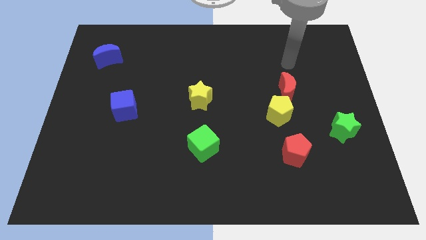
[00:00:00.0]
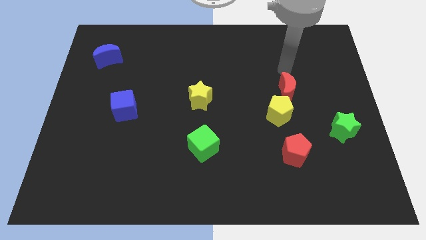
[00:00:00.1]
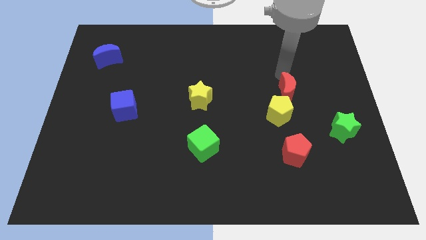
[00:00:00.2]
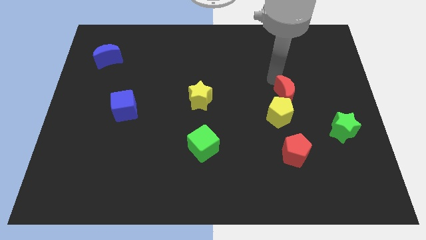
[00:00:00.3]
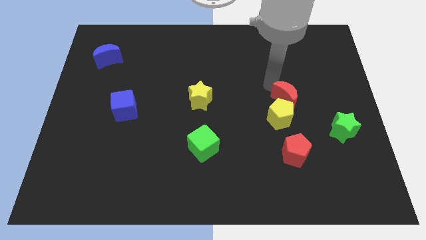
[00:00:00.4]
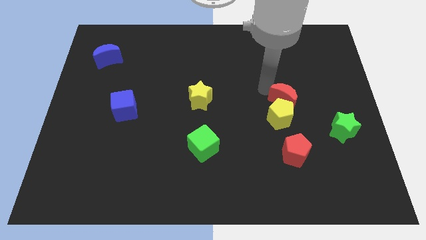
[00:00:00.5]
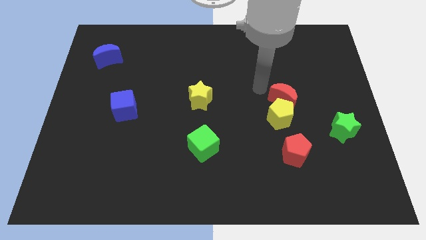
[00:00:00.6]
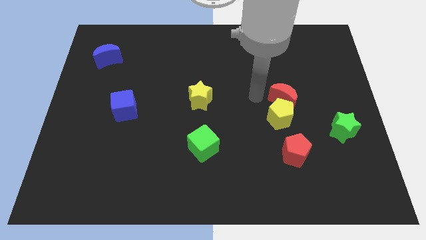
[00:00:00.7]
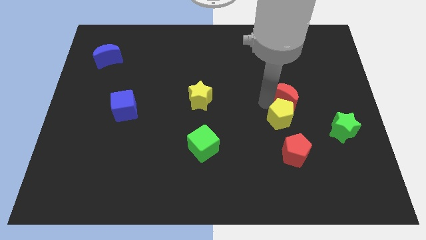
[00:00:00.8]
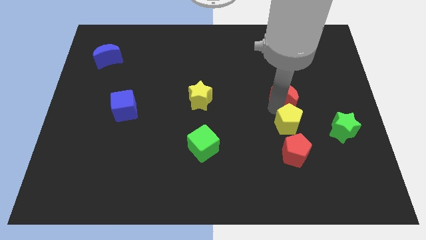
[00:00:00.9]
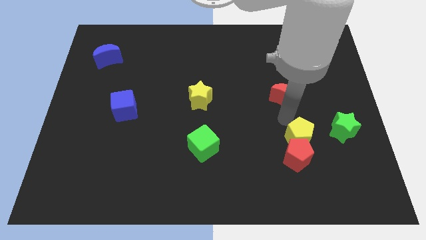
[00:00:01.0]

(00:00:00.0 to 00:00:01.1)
pull the red moon apart from the yellow pentagon

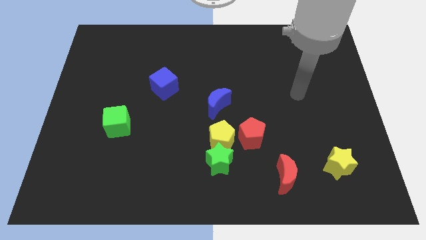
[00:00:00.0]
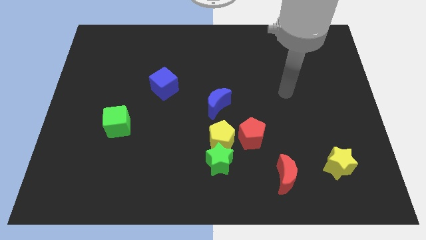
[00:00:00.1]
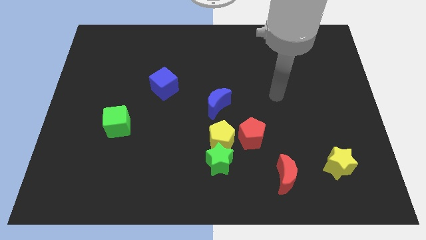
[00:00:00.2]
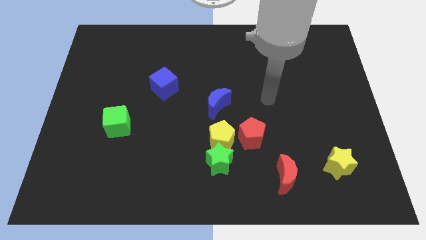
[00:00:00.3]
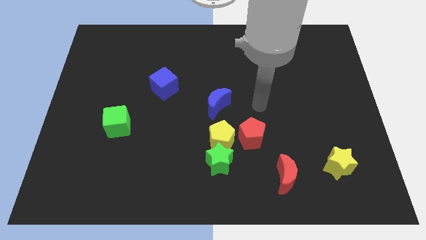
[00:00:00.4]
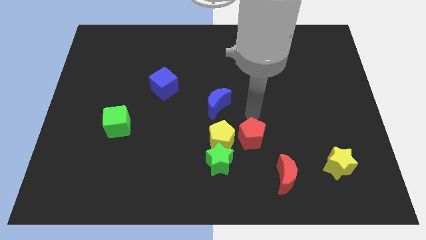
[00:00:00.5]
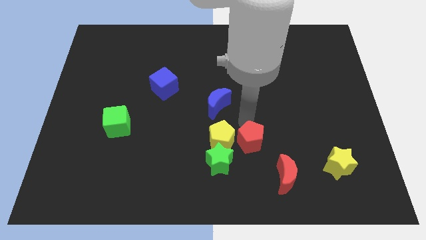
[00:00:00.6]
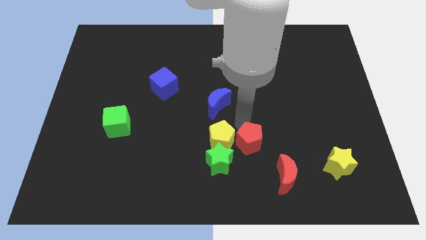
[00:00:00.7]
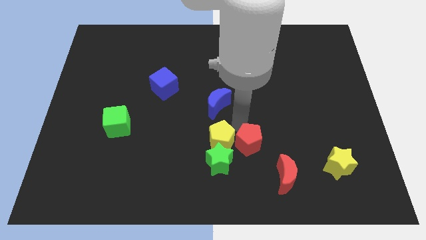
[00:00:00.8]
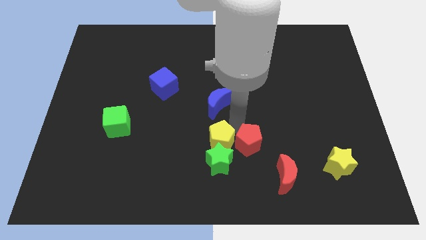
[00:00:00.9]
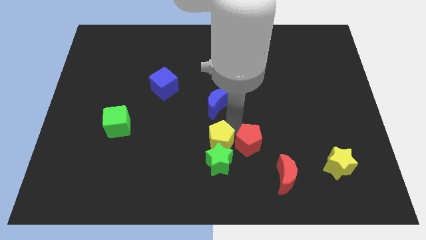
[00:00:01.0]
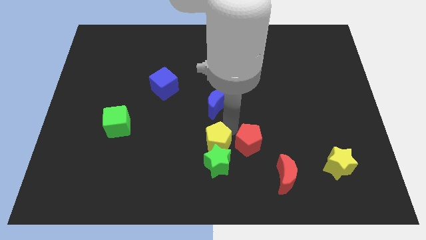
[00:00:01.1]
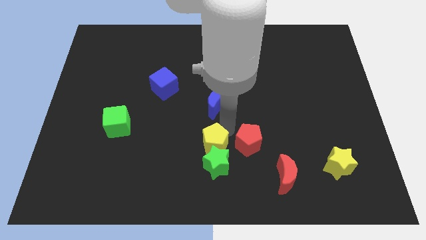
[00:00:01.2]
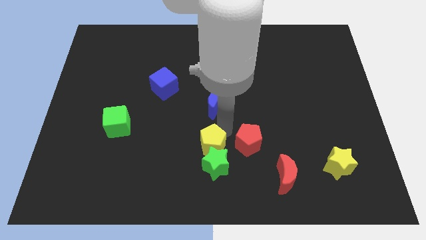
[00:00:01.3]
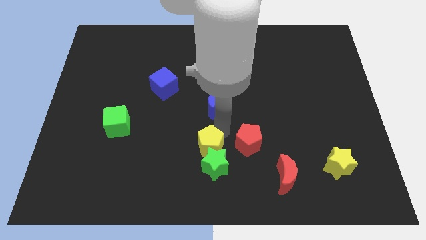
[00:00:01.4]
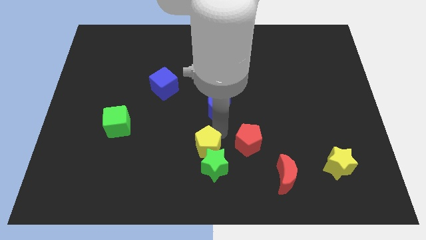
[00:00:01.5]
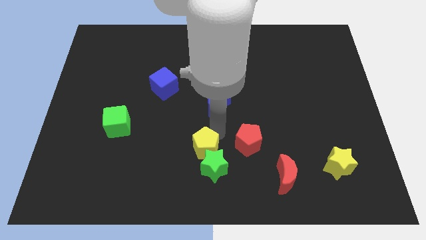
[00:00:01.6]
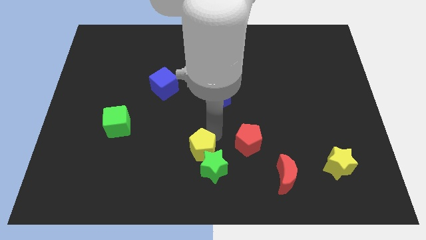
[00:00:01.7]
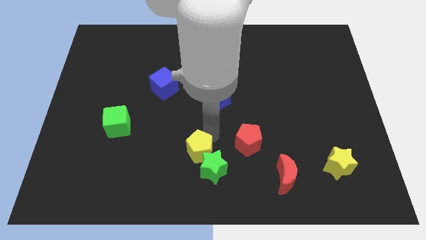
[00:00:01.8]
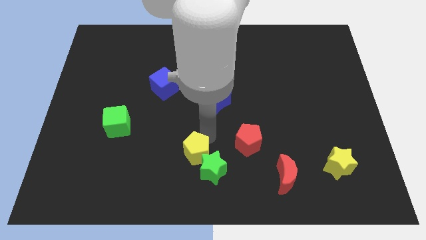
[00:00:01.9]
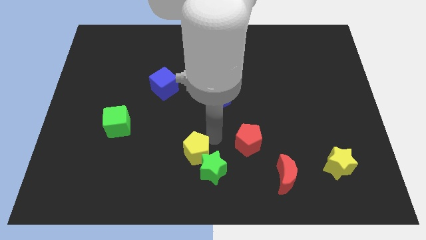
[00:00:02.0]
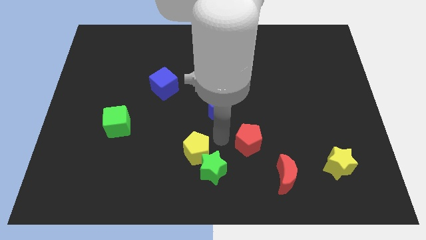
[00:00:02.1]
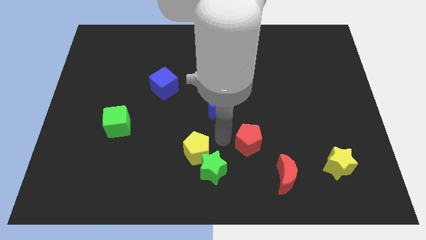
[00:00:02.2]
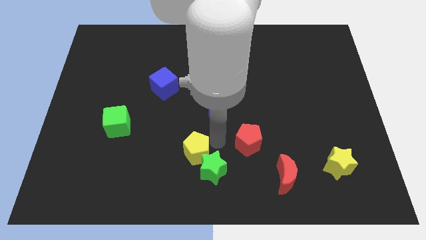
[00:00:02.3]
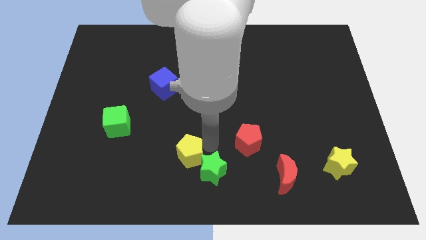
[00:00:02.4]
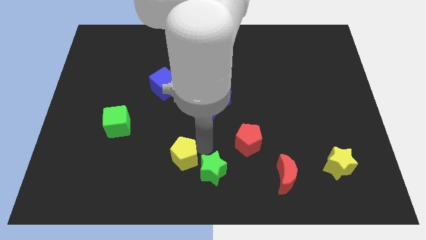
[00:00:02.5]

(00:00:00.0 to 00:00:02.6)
separate the yellow pentagon from the green star, red pentagon, and blue moon

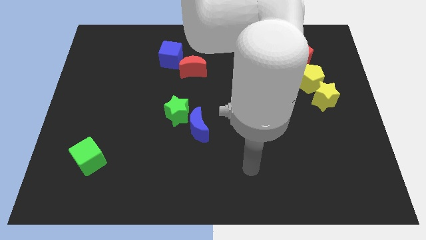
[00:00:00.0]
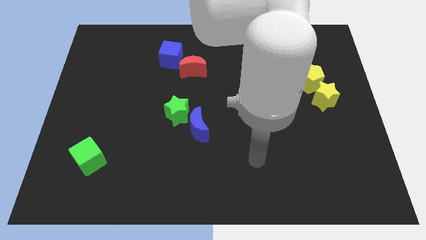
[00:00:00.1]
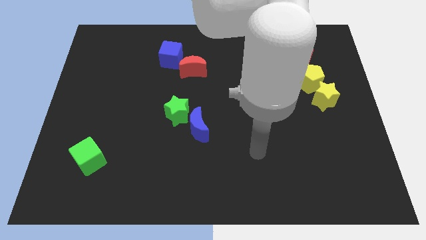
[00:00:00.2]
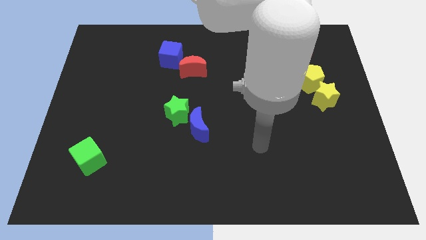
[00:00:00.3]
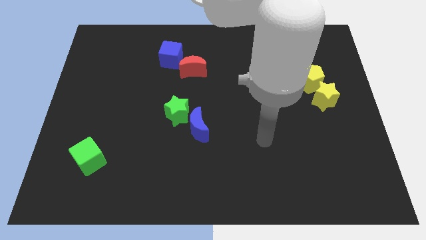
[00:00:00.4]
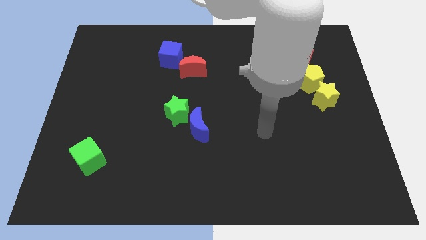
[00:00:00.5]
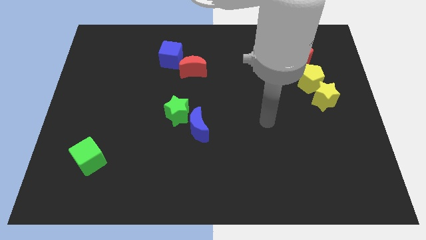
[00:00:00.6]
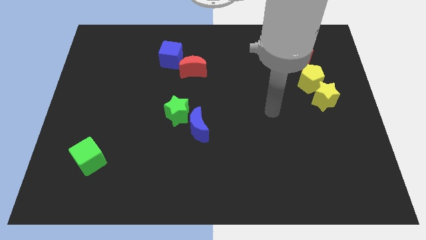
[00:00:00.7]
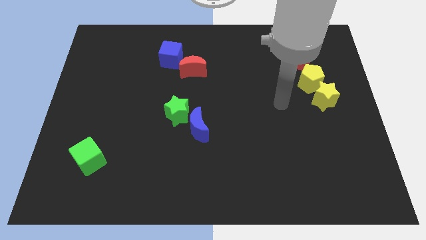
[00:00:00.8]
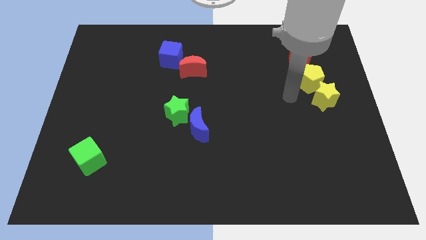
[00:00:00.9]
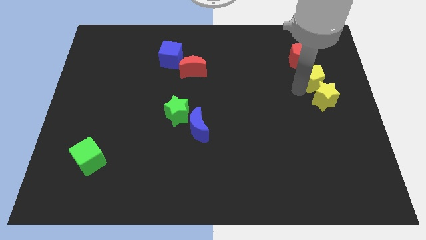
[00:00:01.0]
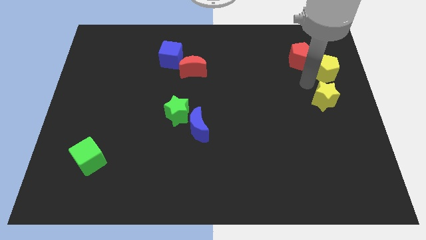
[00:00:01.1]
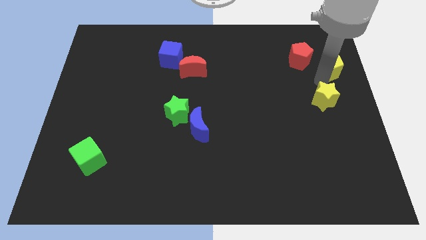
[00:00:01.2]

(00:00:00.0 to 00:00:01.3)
pull the yellow star apart from the yellow pentagon

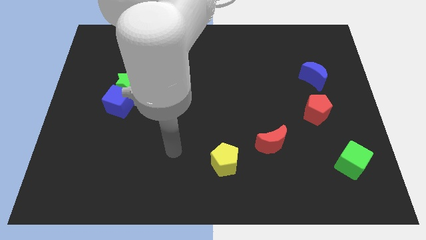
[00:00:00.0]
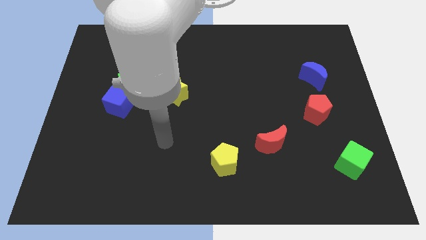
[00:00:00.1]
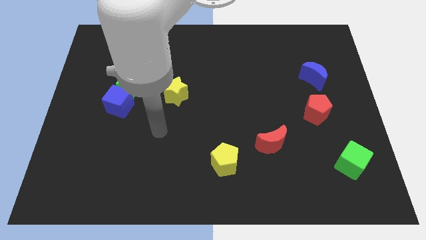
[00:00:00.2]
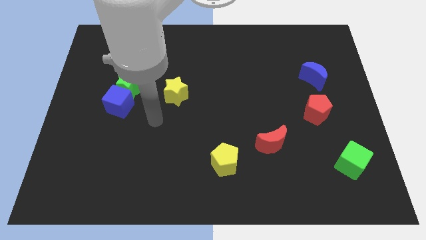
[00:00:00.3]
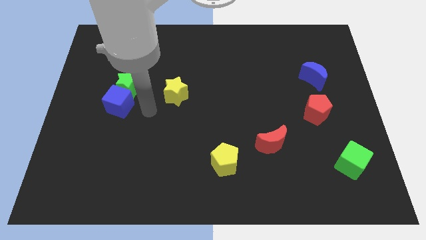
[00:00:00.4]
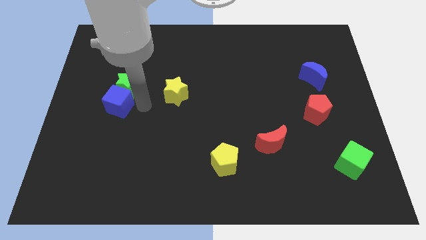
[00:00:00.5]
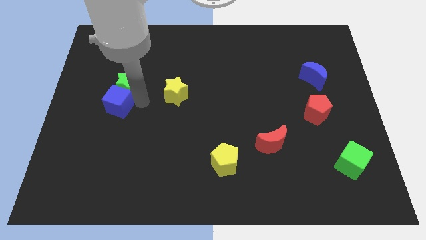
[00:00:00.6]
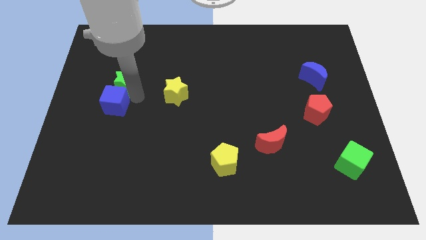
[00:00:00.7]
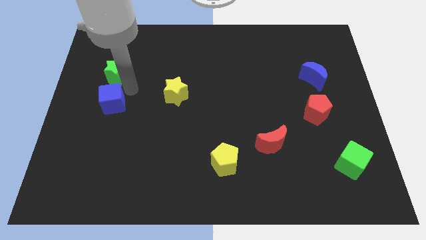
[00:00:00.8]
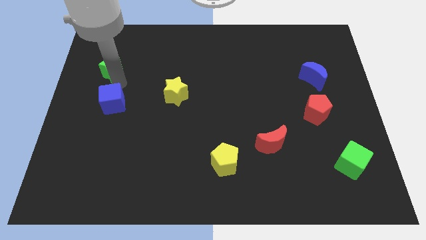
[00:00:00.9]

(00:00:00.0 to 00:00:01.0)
pull the blue cube apart from the green star

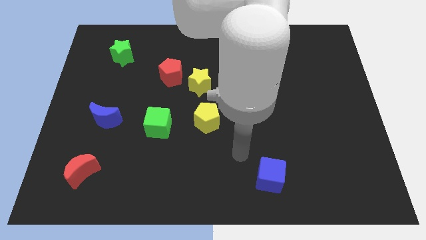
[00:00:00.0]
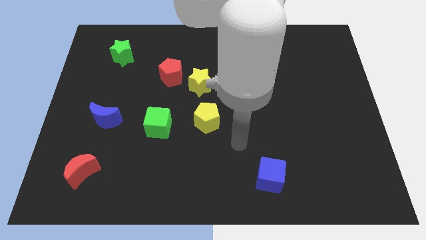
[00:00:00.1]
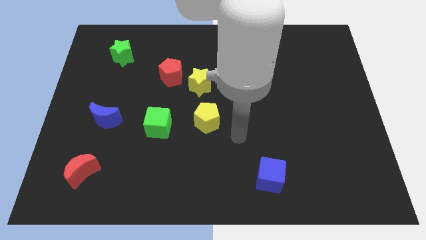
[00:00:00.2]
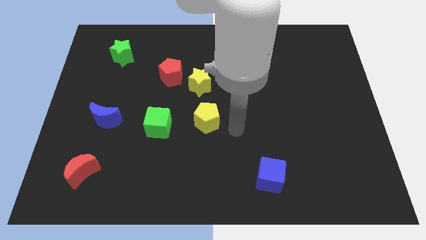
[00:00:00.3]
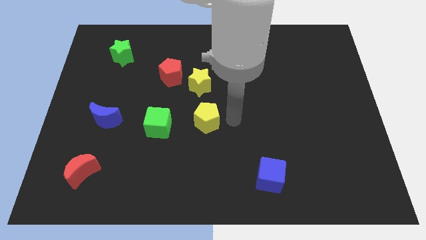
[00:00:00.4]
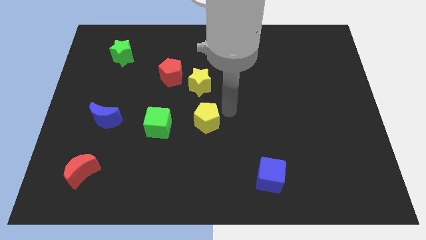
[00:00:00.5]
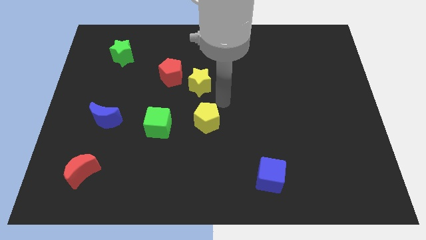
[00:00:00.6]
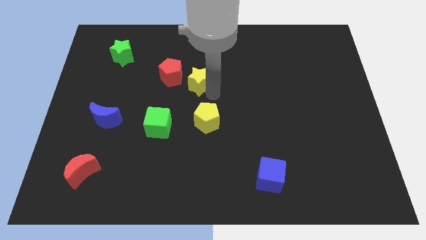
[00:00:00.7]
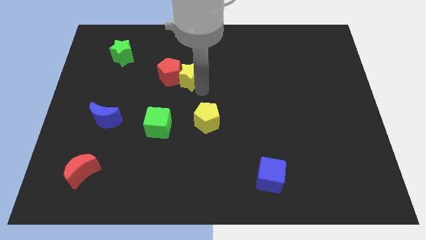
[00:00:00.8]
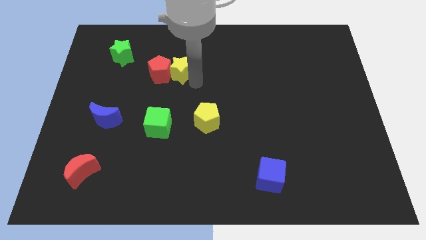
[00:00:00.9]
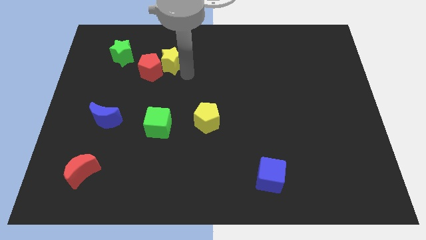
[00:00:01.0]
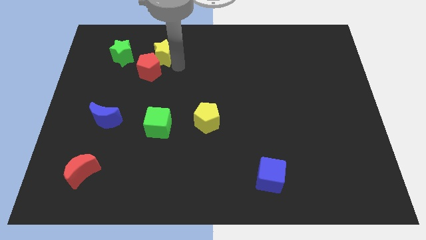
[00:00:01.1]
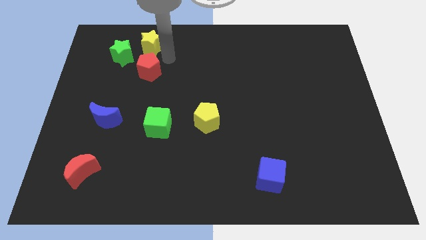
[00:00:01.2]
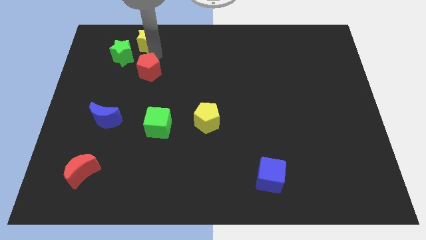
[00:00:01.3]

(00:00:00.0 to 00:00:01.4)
move the red pentagon away from the yellow star

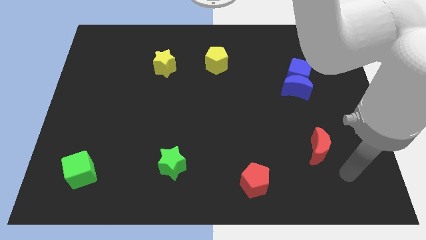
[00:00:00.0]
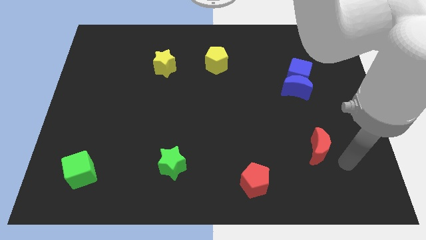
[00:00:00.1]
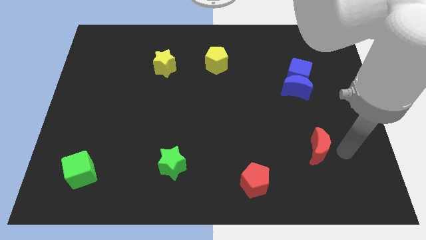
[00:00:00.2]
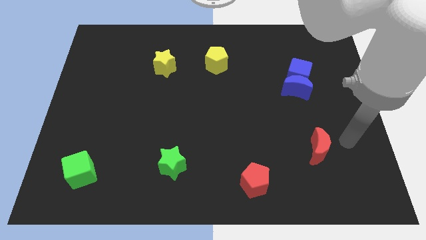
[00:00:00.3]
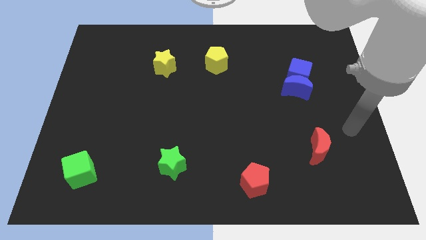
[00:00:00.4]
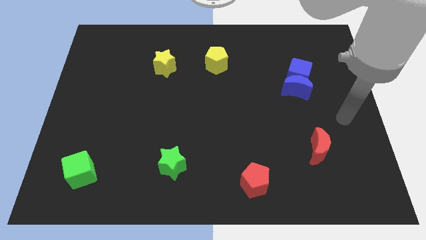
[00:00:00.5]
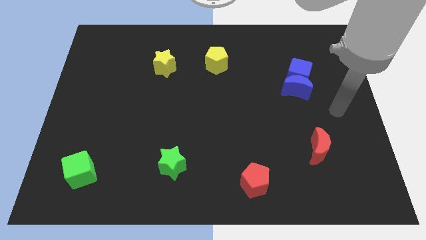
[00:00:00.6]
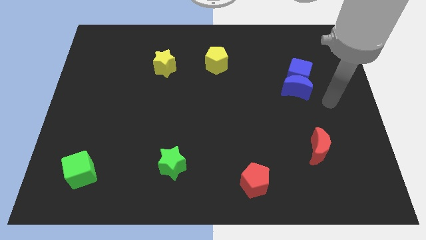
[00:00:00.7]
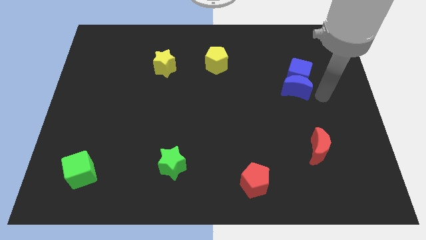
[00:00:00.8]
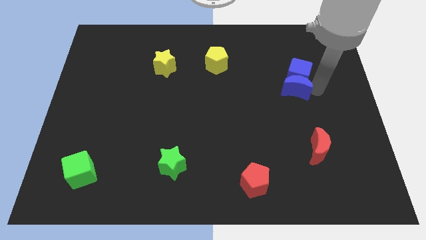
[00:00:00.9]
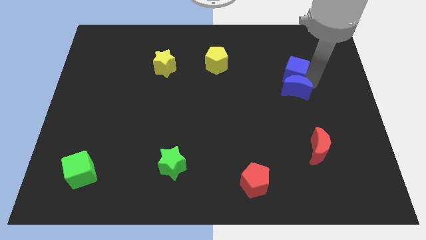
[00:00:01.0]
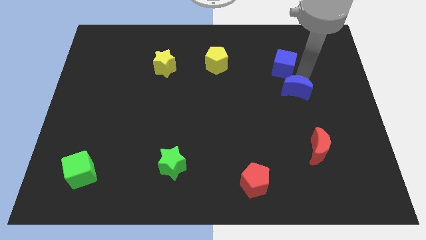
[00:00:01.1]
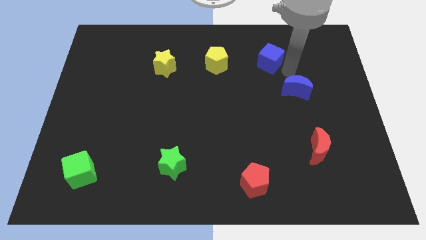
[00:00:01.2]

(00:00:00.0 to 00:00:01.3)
move the blue moon away from the blue cube

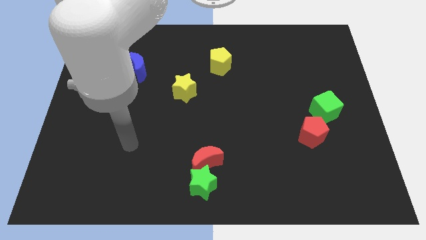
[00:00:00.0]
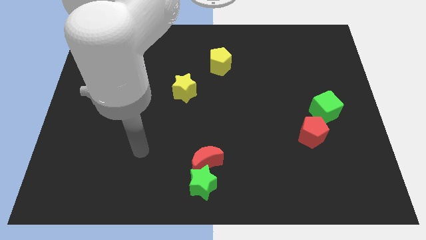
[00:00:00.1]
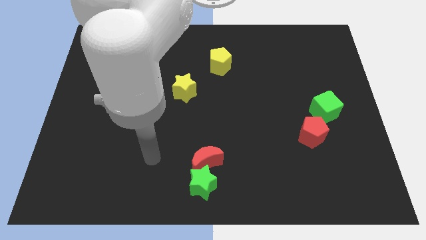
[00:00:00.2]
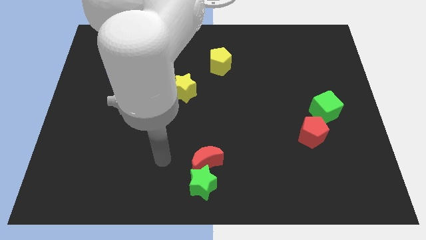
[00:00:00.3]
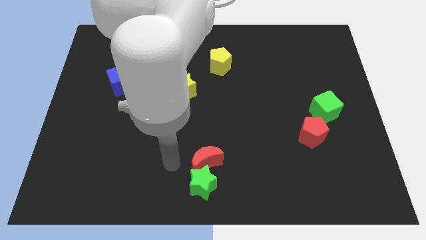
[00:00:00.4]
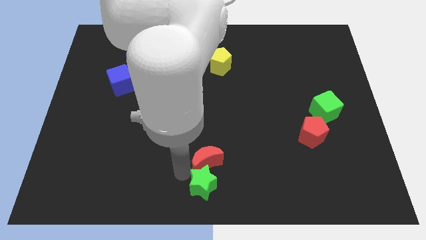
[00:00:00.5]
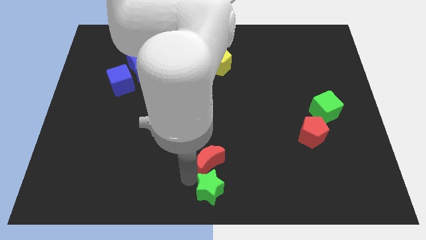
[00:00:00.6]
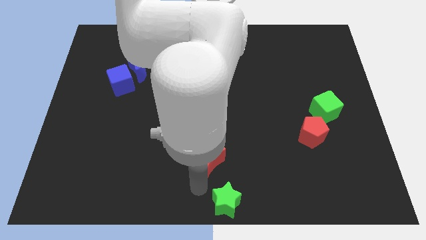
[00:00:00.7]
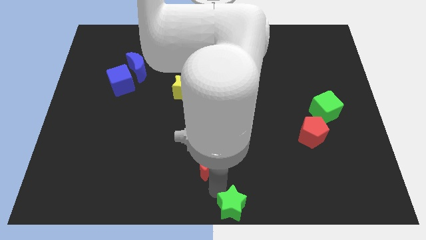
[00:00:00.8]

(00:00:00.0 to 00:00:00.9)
move the red moon away from the green star
